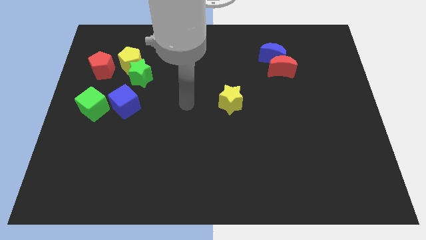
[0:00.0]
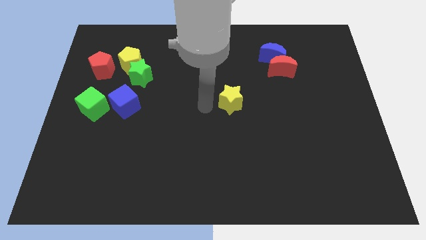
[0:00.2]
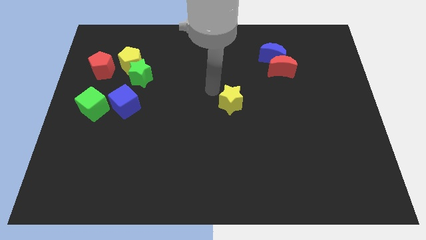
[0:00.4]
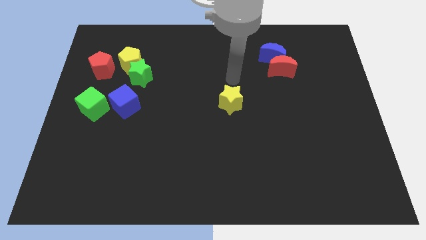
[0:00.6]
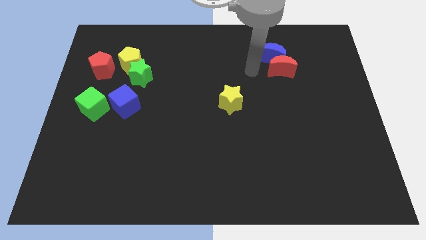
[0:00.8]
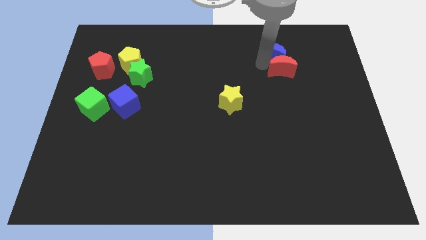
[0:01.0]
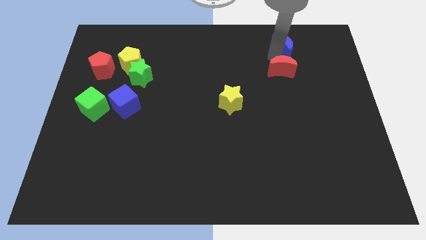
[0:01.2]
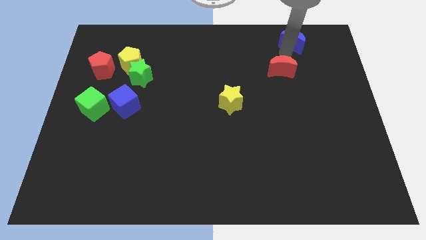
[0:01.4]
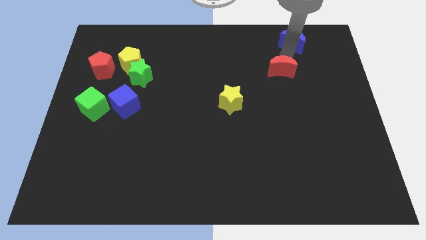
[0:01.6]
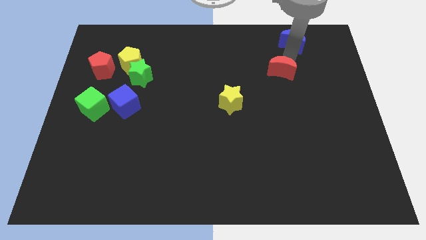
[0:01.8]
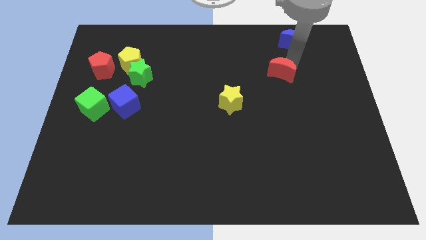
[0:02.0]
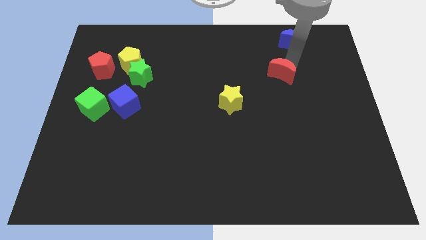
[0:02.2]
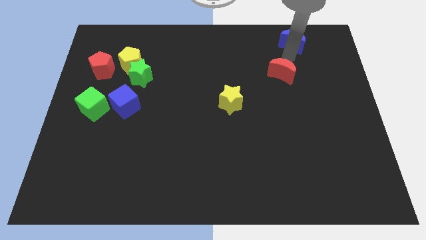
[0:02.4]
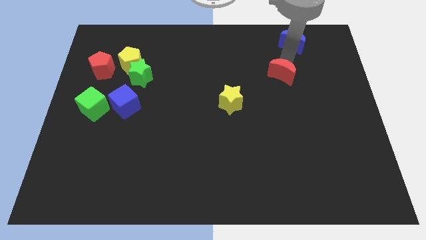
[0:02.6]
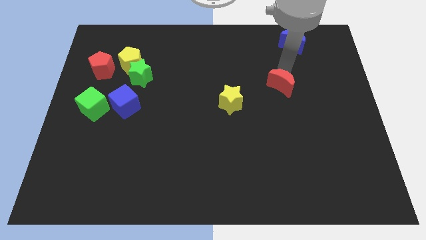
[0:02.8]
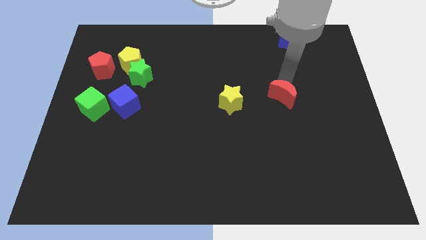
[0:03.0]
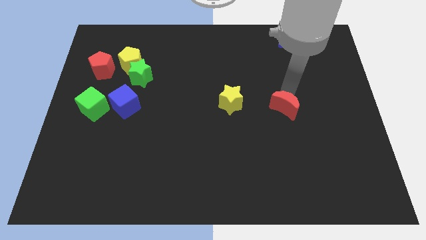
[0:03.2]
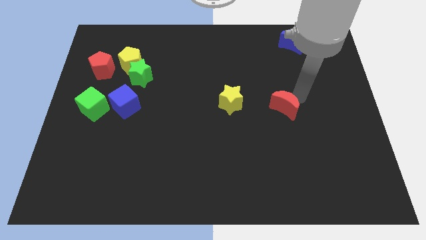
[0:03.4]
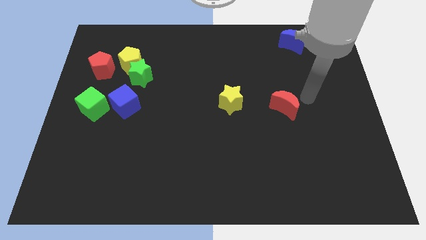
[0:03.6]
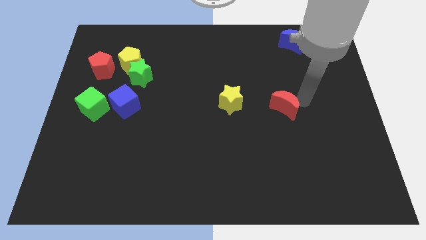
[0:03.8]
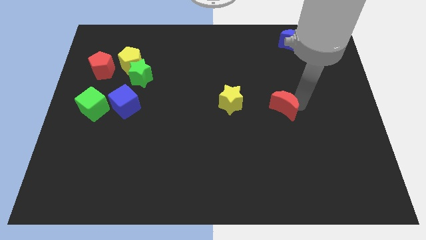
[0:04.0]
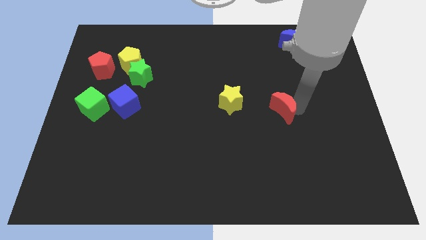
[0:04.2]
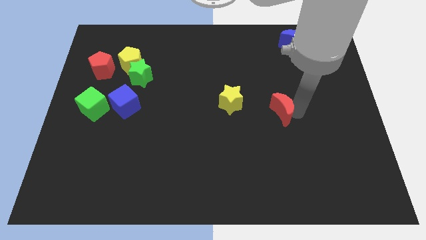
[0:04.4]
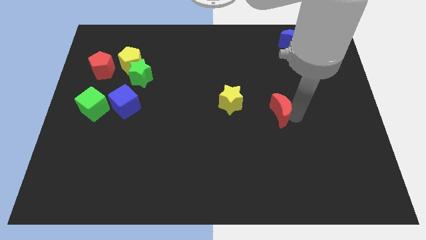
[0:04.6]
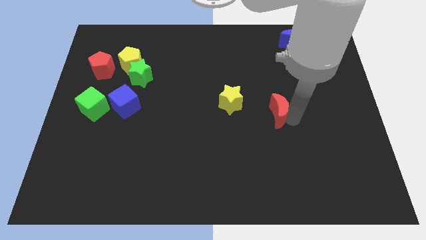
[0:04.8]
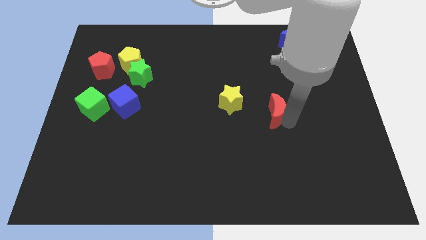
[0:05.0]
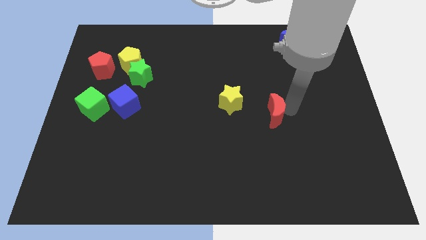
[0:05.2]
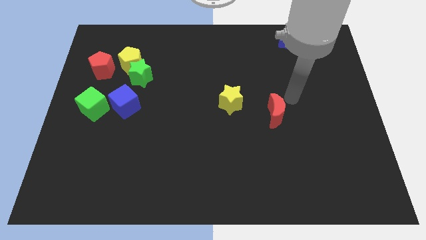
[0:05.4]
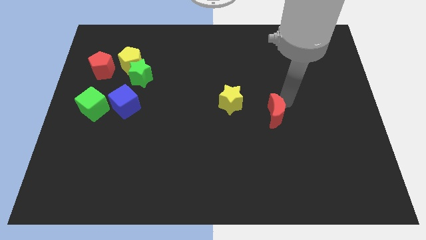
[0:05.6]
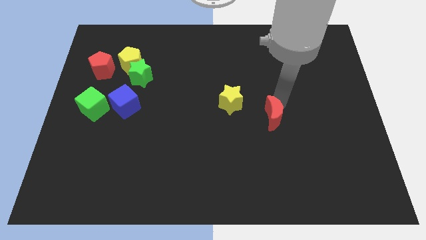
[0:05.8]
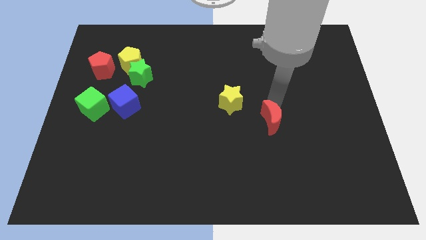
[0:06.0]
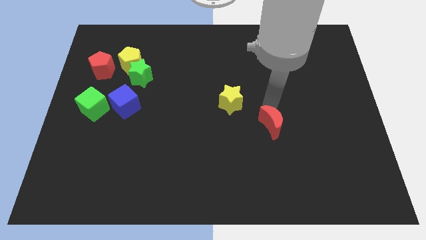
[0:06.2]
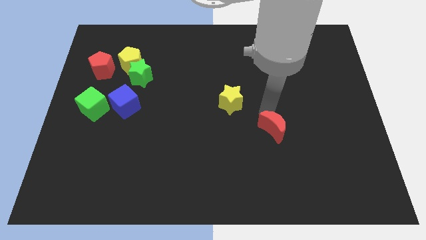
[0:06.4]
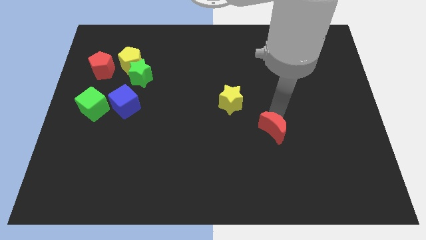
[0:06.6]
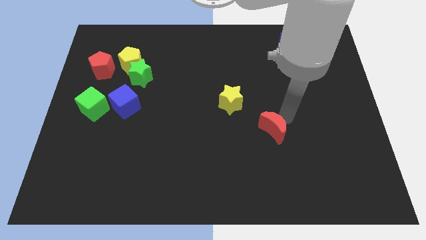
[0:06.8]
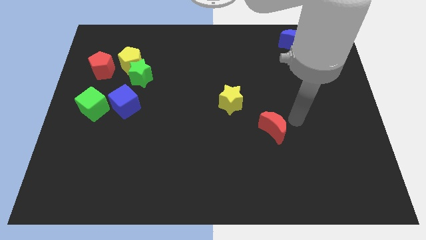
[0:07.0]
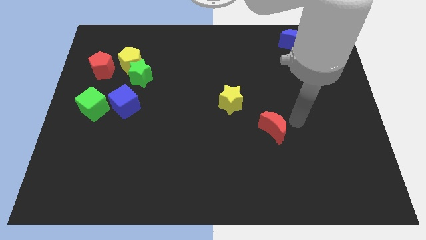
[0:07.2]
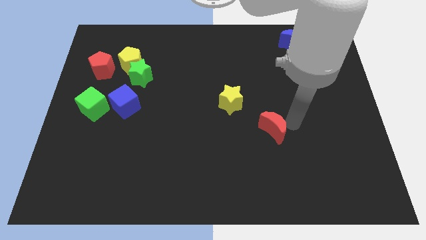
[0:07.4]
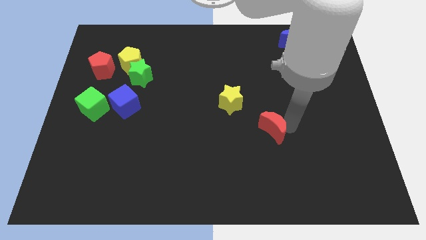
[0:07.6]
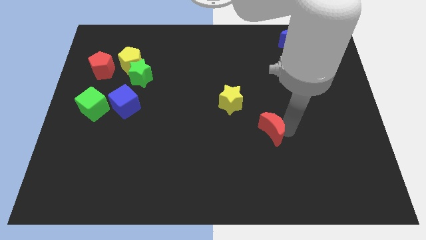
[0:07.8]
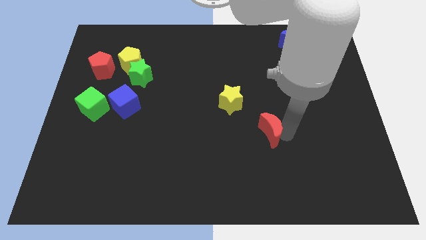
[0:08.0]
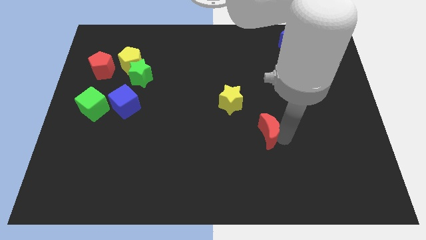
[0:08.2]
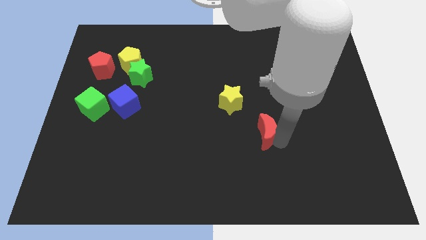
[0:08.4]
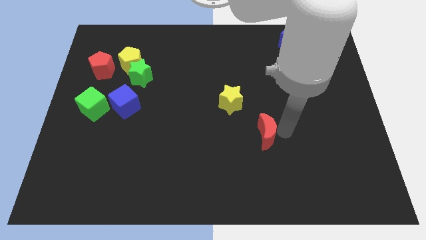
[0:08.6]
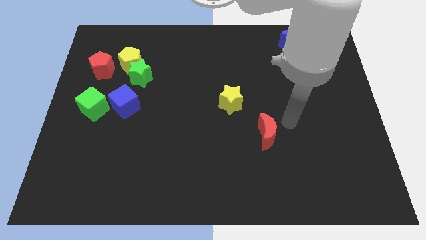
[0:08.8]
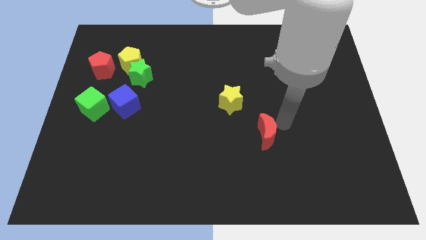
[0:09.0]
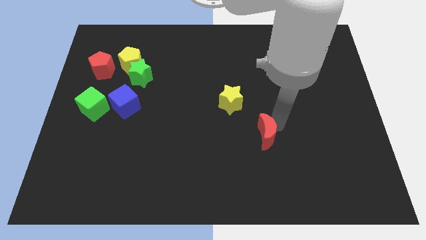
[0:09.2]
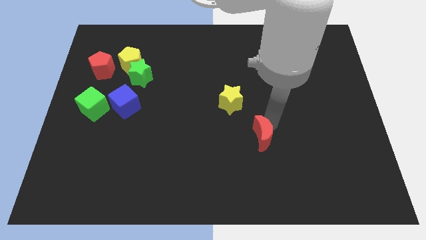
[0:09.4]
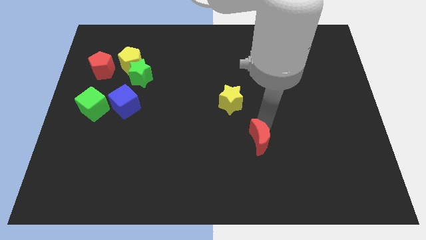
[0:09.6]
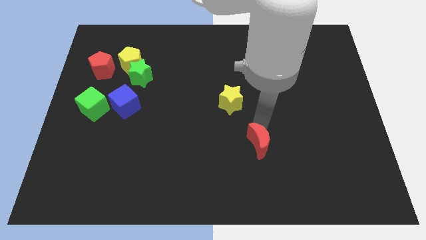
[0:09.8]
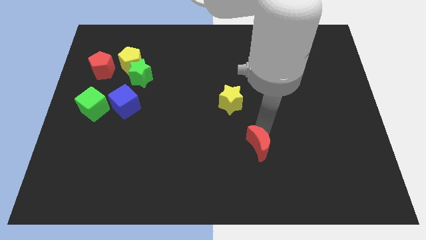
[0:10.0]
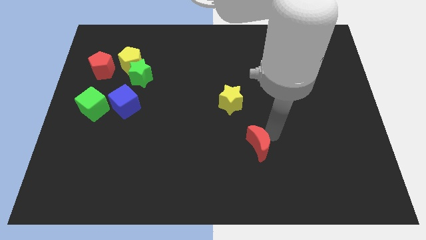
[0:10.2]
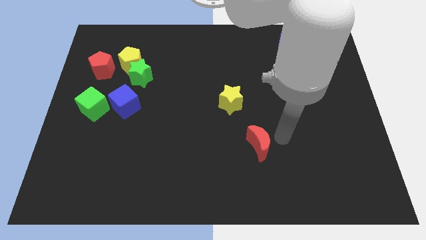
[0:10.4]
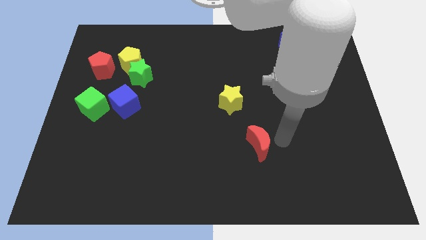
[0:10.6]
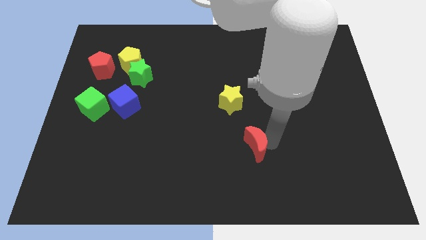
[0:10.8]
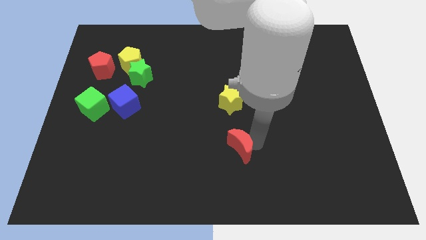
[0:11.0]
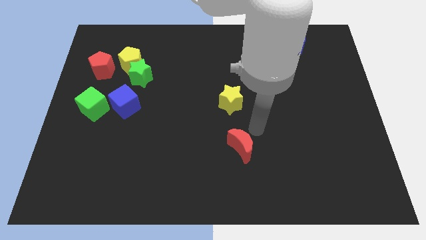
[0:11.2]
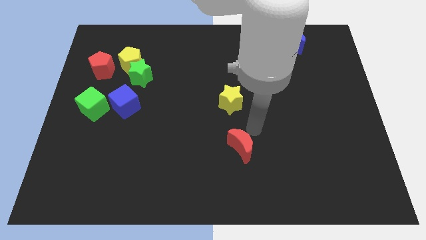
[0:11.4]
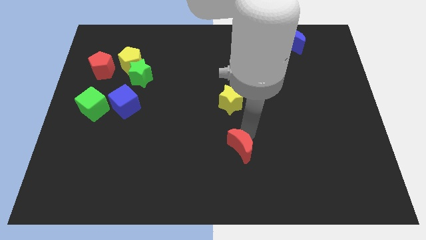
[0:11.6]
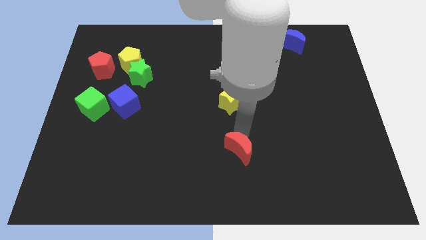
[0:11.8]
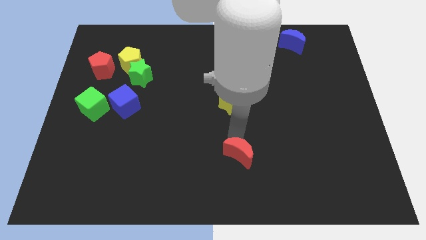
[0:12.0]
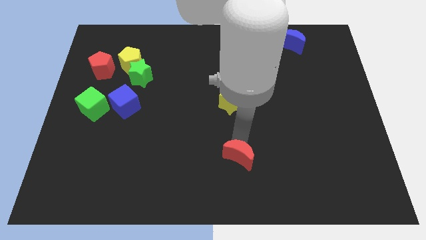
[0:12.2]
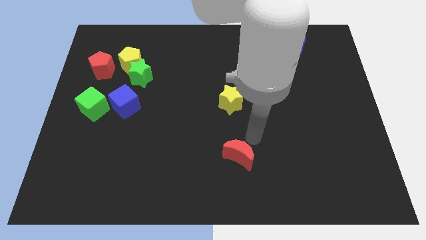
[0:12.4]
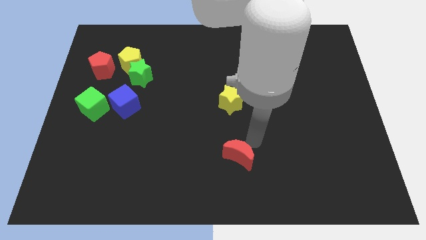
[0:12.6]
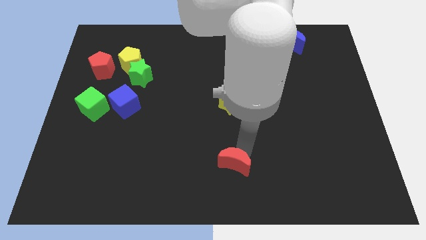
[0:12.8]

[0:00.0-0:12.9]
slide the red moon to the bottom
